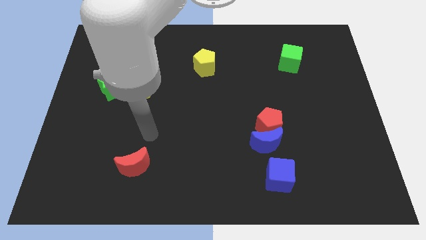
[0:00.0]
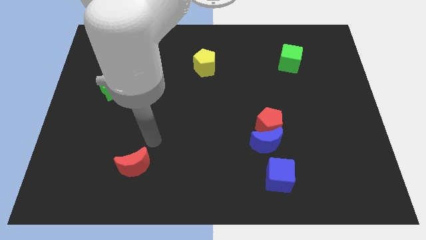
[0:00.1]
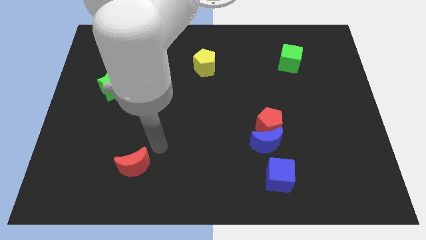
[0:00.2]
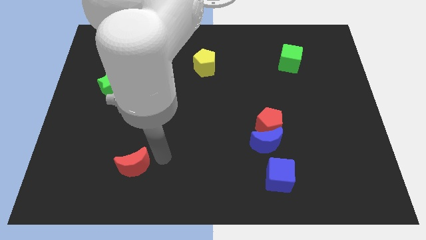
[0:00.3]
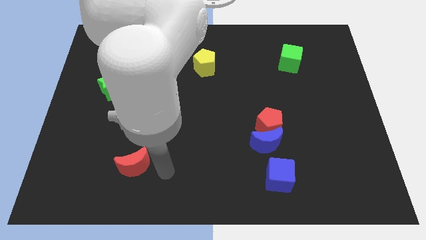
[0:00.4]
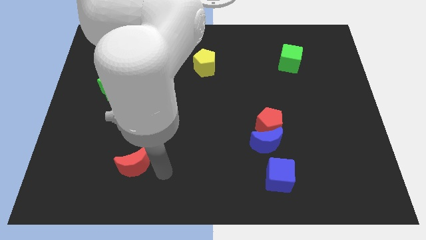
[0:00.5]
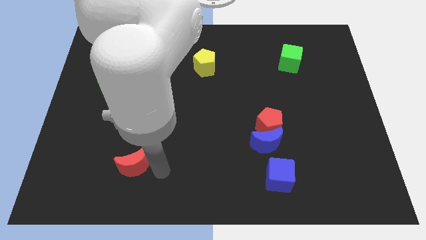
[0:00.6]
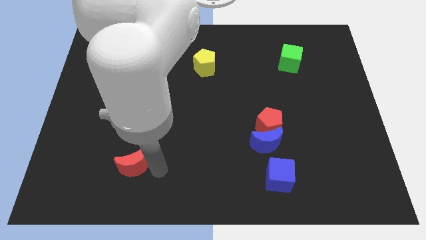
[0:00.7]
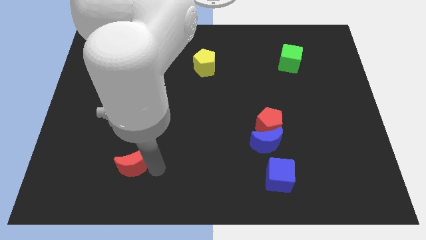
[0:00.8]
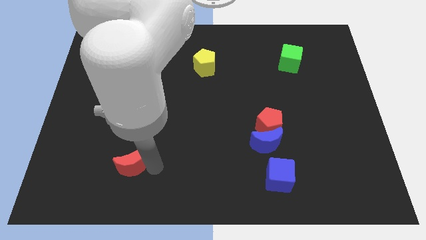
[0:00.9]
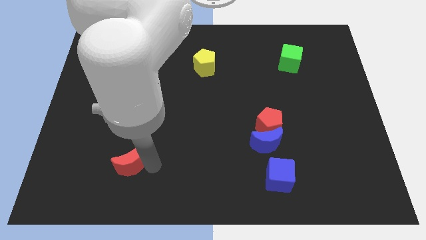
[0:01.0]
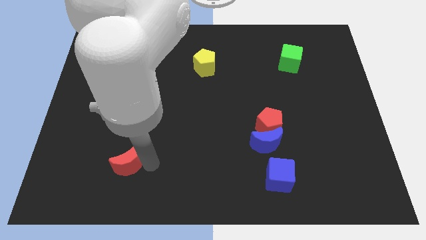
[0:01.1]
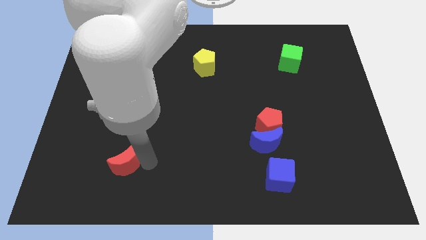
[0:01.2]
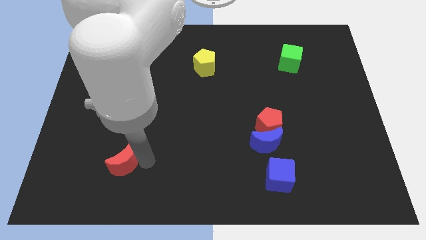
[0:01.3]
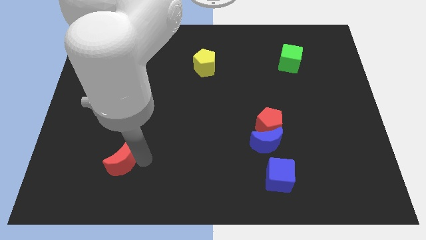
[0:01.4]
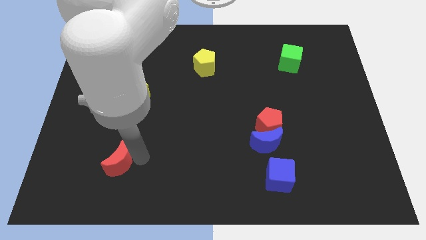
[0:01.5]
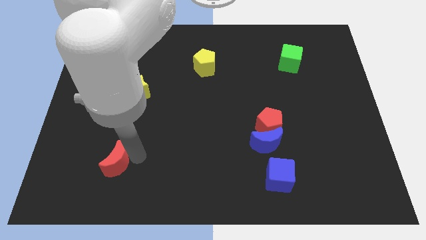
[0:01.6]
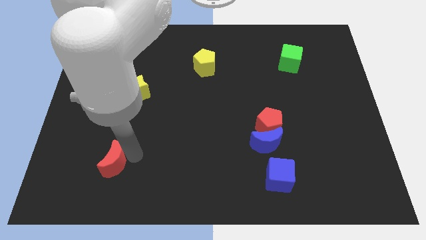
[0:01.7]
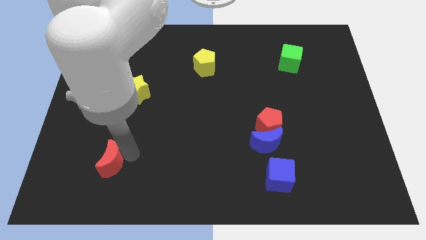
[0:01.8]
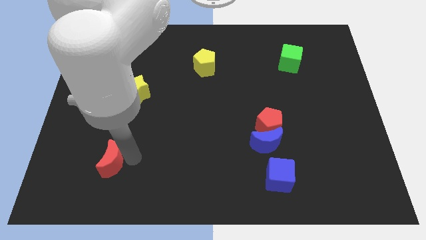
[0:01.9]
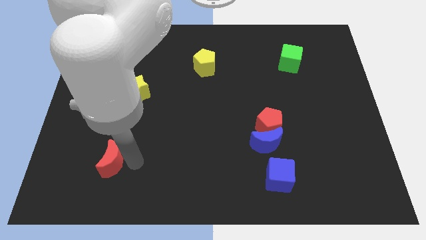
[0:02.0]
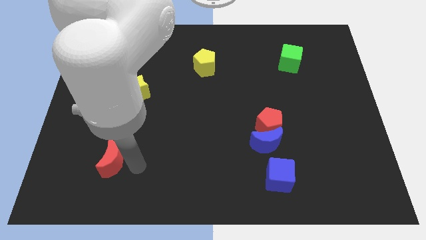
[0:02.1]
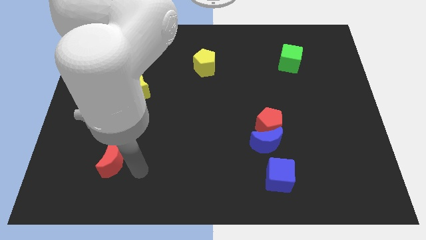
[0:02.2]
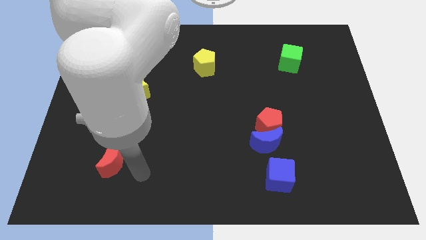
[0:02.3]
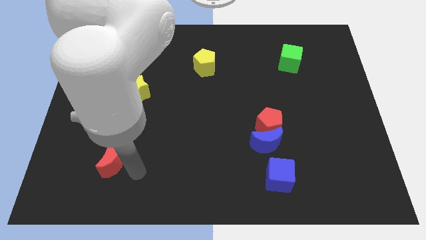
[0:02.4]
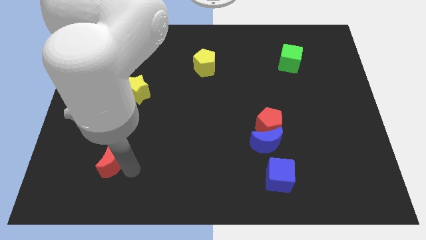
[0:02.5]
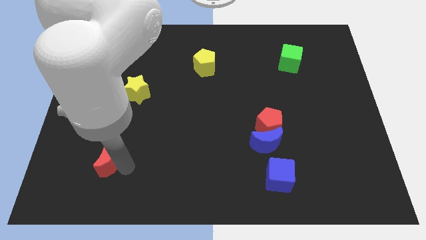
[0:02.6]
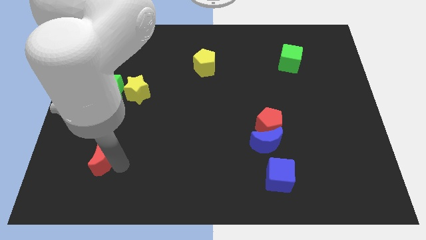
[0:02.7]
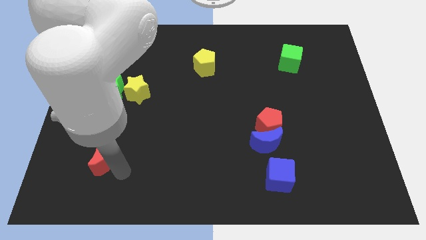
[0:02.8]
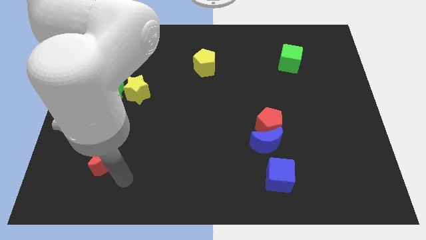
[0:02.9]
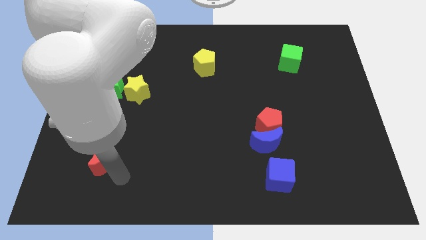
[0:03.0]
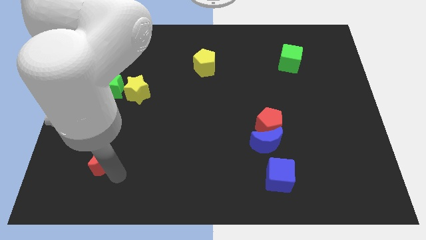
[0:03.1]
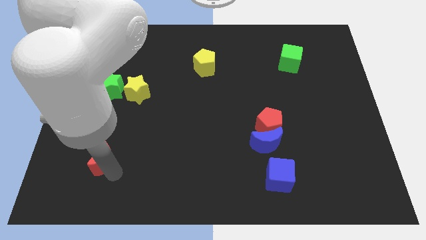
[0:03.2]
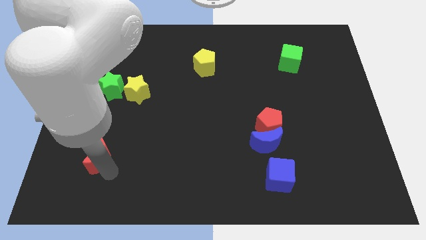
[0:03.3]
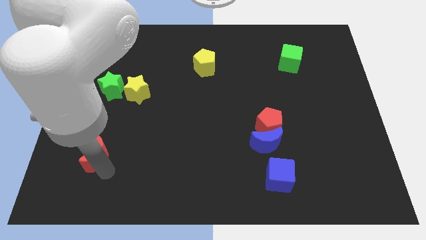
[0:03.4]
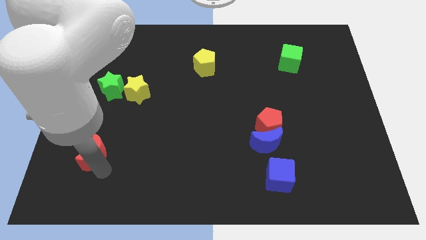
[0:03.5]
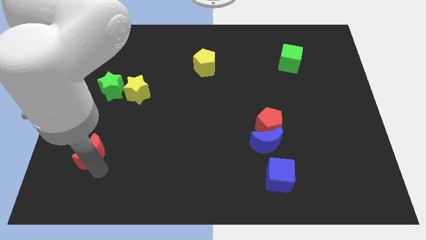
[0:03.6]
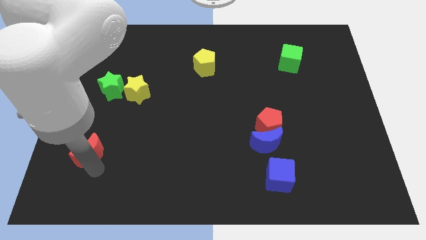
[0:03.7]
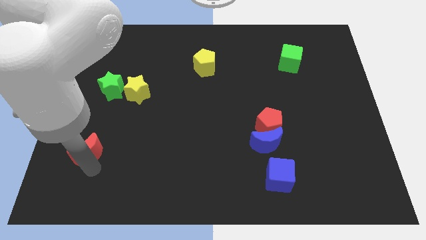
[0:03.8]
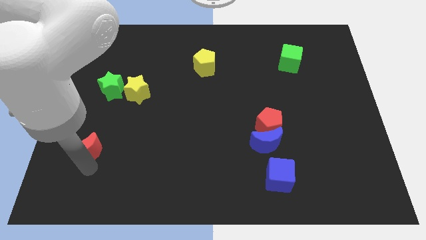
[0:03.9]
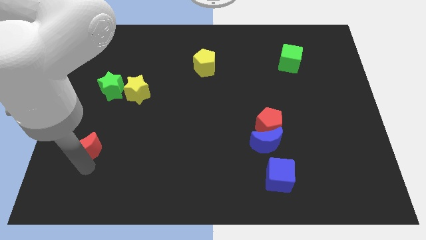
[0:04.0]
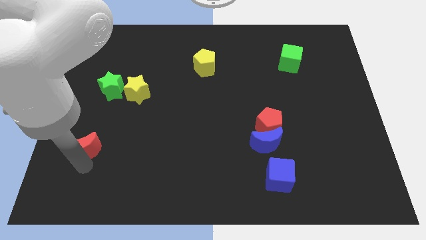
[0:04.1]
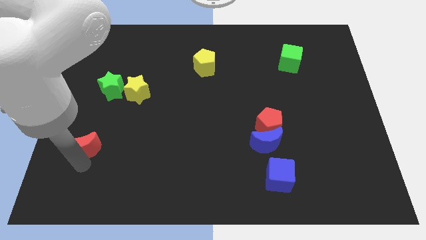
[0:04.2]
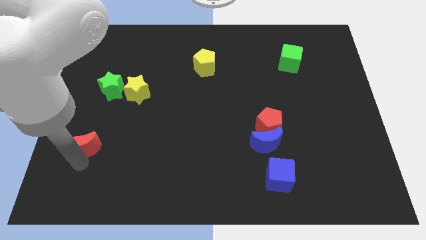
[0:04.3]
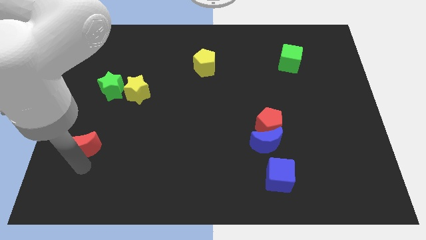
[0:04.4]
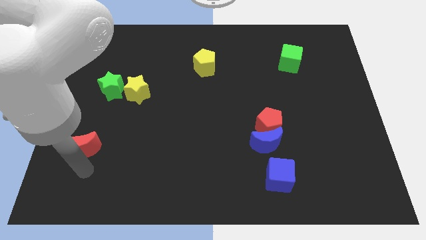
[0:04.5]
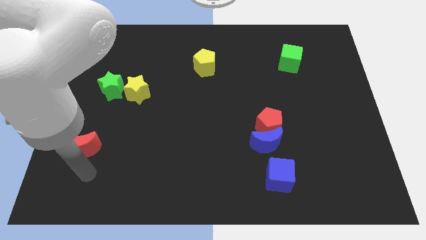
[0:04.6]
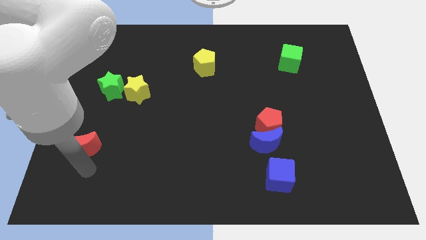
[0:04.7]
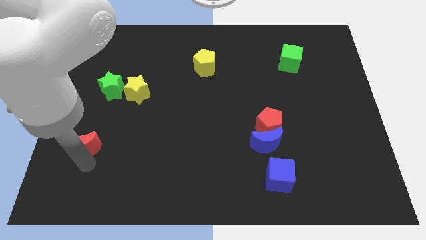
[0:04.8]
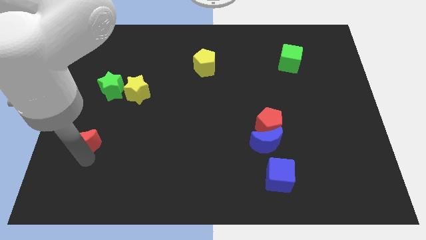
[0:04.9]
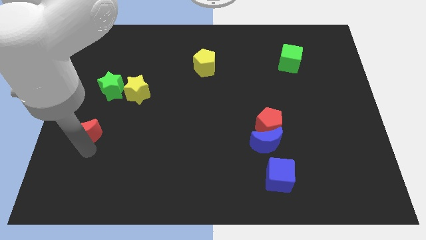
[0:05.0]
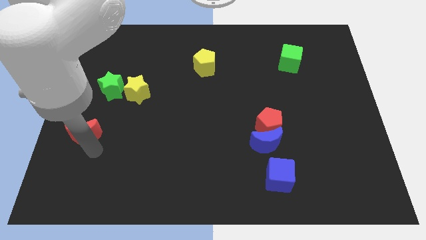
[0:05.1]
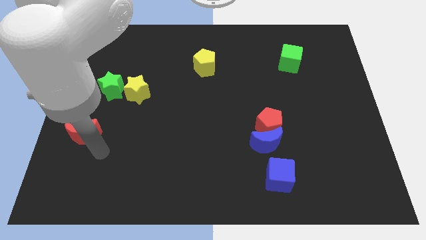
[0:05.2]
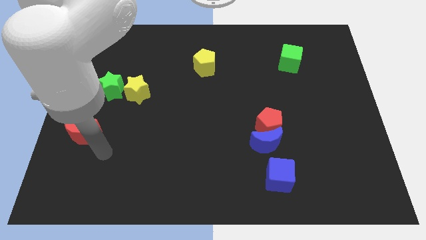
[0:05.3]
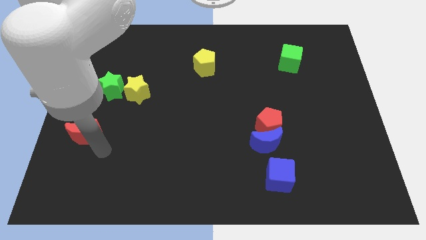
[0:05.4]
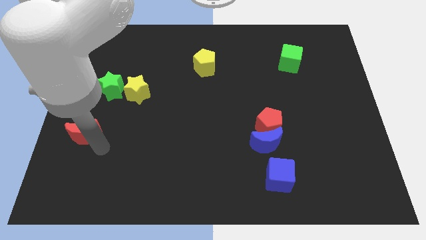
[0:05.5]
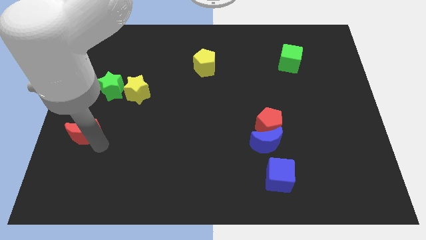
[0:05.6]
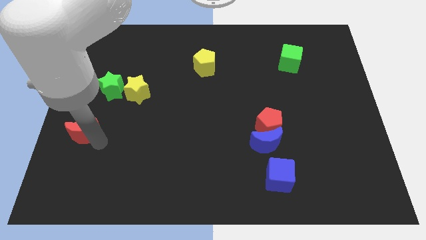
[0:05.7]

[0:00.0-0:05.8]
push the red moon to the left side of the board
